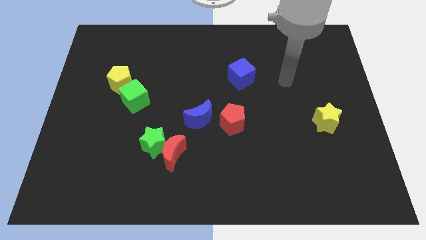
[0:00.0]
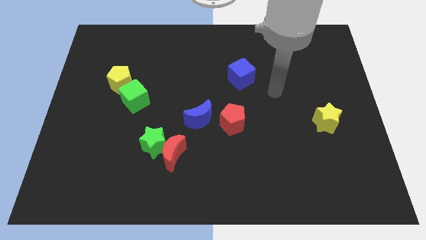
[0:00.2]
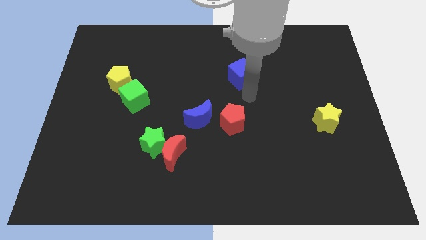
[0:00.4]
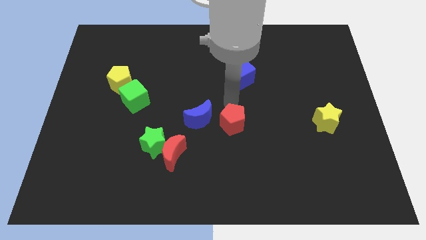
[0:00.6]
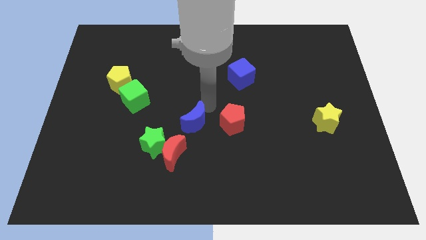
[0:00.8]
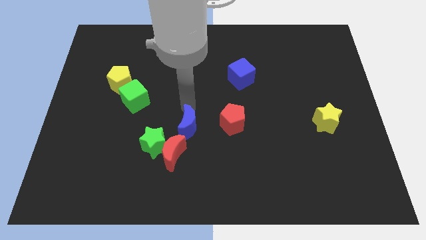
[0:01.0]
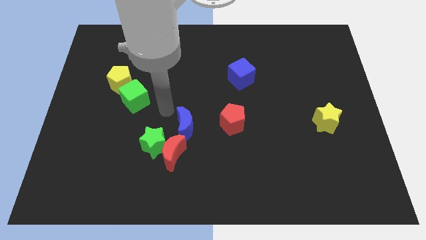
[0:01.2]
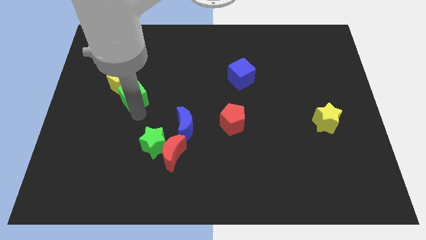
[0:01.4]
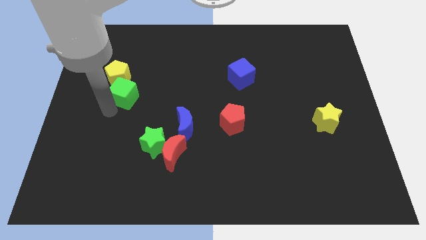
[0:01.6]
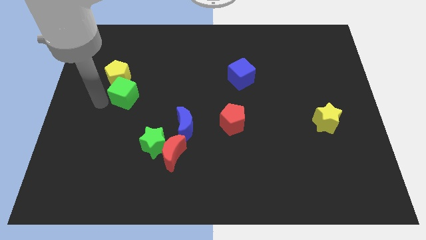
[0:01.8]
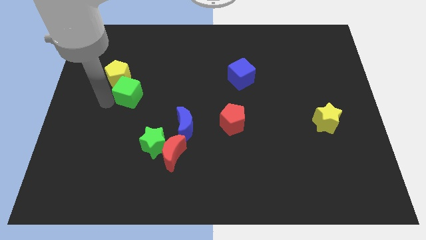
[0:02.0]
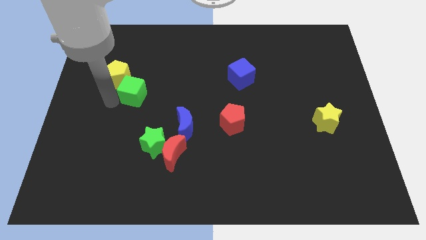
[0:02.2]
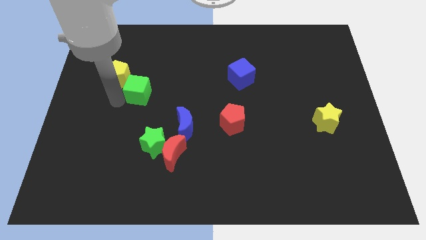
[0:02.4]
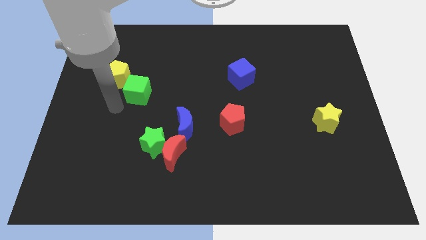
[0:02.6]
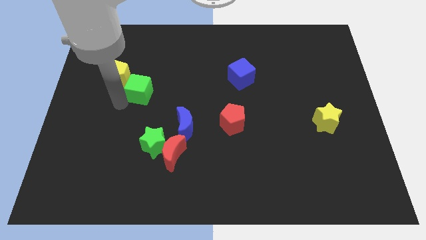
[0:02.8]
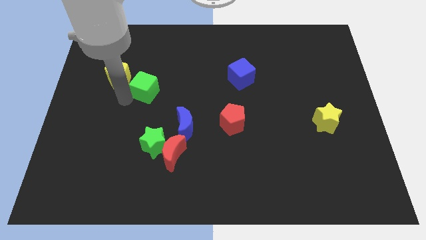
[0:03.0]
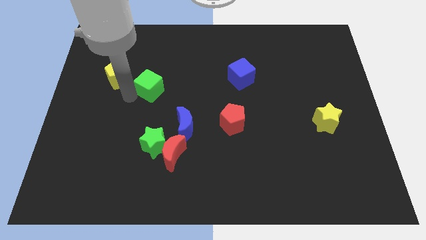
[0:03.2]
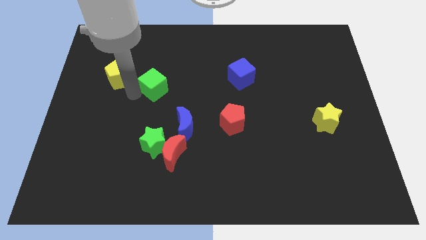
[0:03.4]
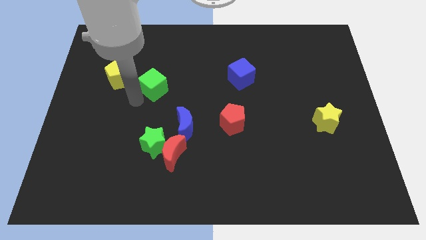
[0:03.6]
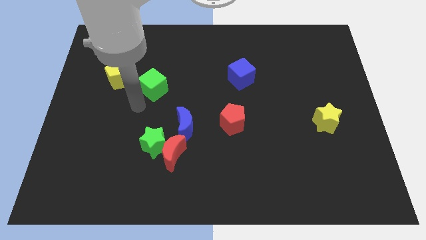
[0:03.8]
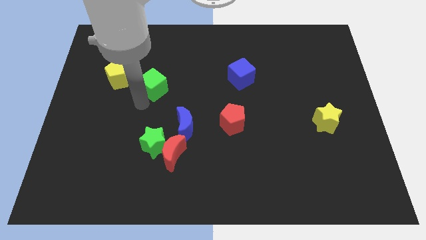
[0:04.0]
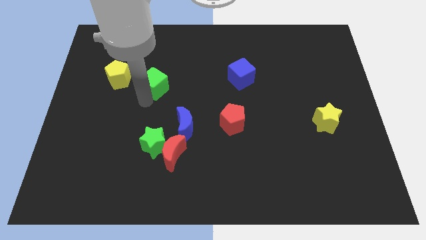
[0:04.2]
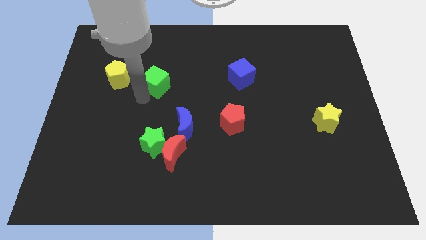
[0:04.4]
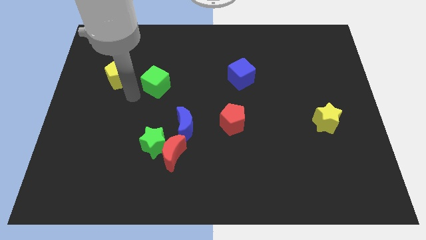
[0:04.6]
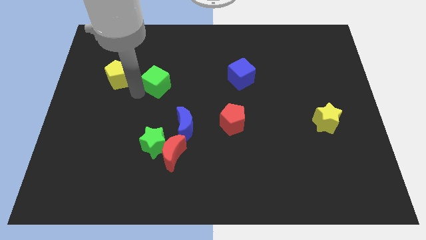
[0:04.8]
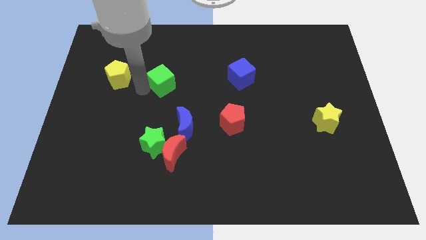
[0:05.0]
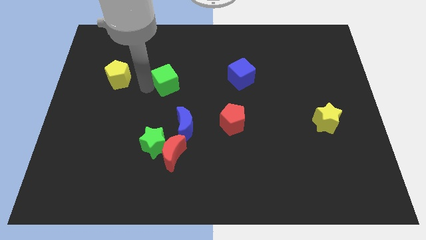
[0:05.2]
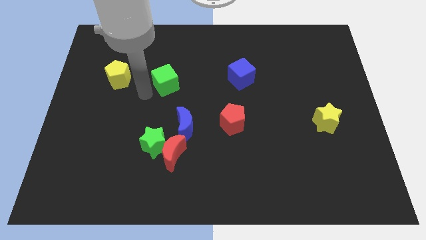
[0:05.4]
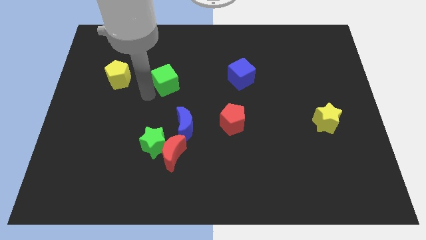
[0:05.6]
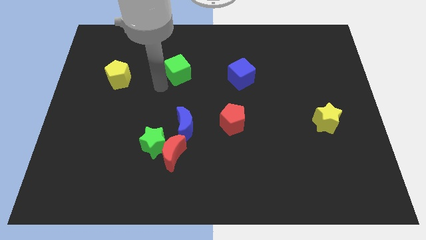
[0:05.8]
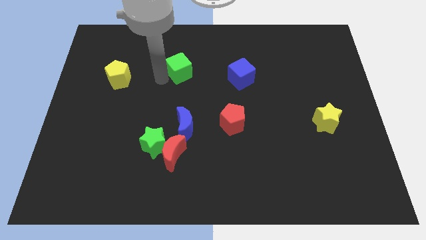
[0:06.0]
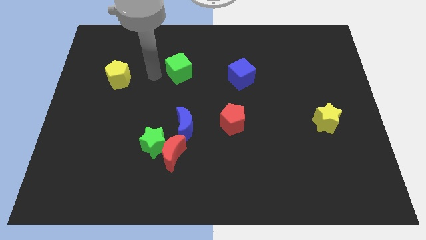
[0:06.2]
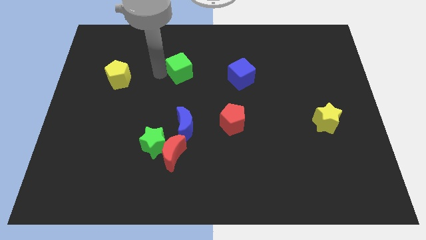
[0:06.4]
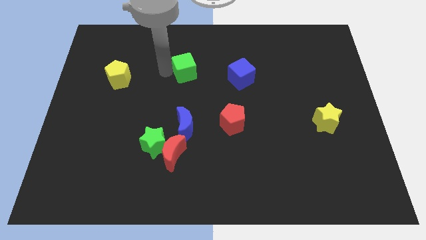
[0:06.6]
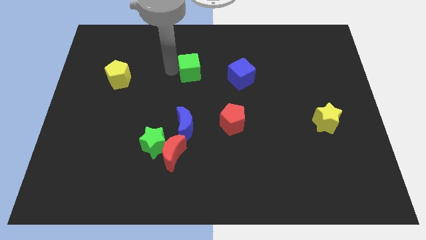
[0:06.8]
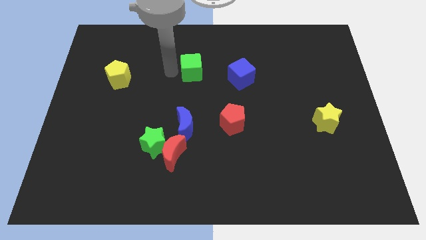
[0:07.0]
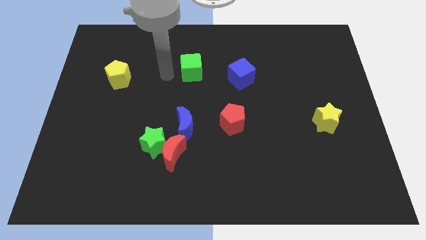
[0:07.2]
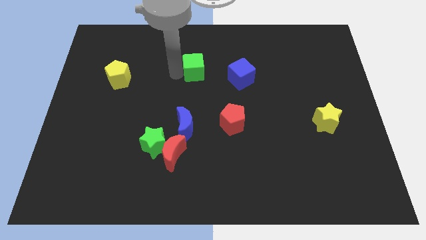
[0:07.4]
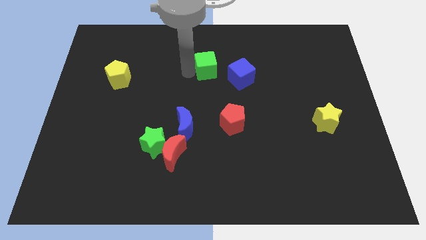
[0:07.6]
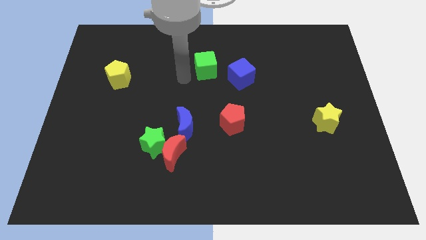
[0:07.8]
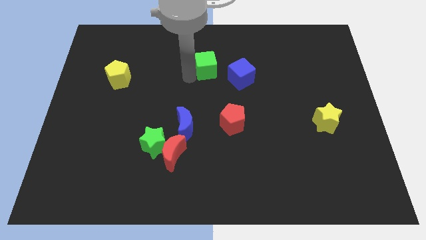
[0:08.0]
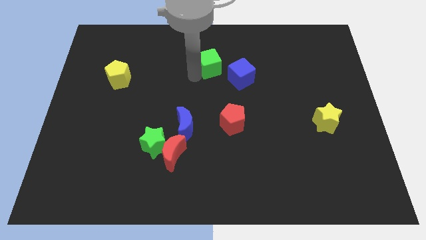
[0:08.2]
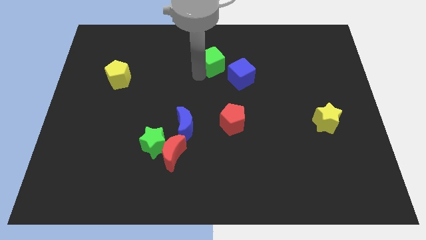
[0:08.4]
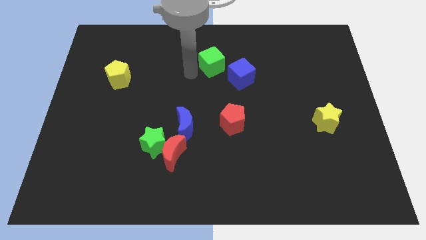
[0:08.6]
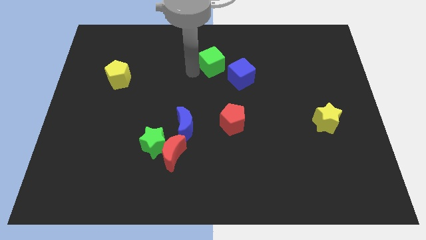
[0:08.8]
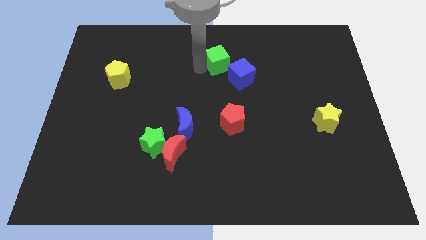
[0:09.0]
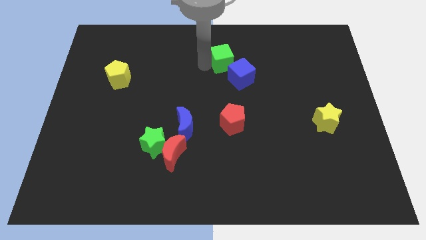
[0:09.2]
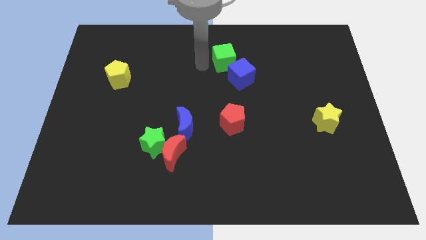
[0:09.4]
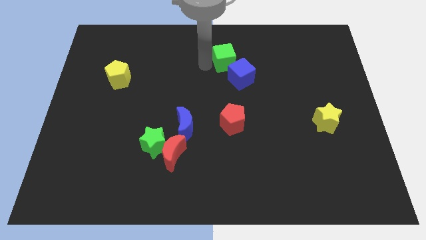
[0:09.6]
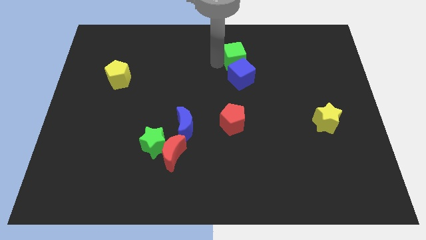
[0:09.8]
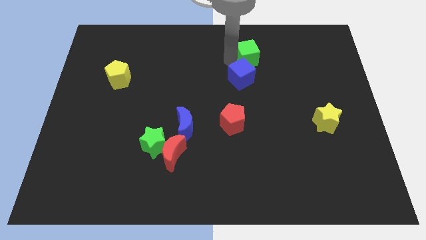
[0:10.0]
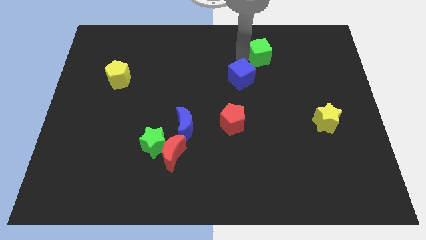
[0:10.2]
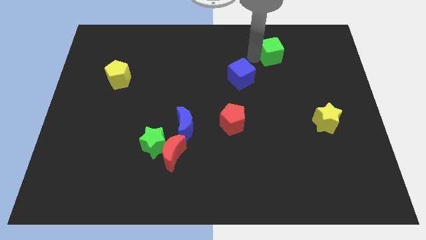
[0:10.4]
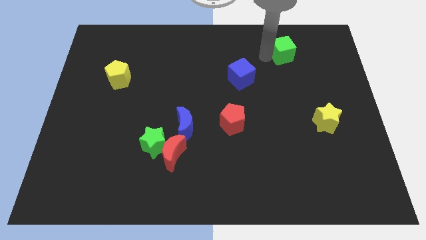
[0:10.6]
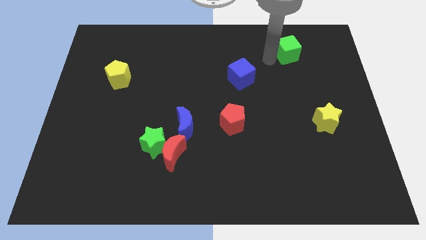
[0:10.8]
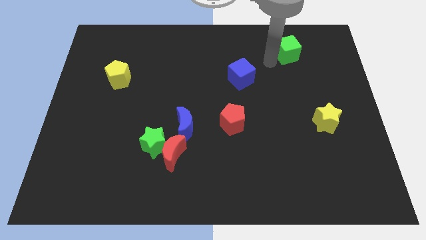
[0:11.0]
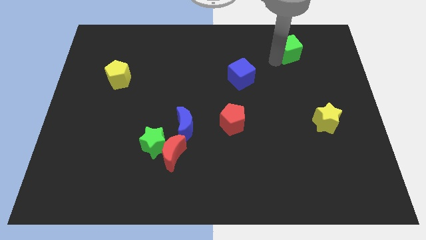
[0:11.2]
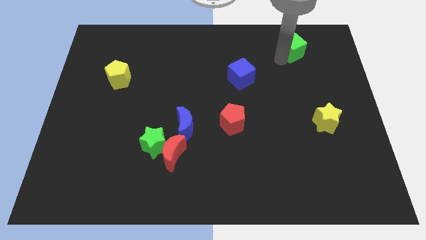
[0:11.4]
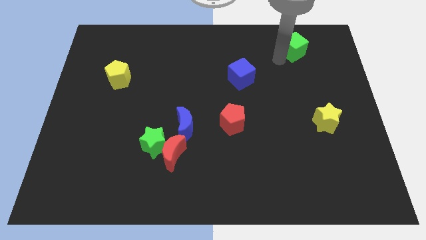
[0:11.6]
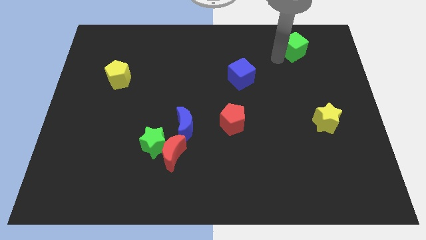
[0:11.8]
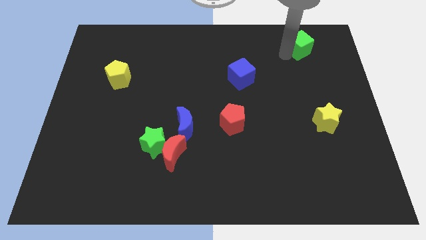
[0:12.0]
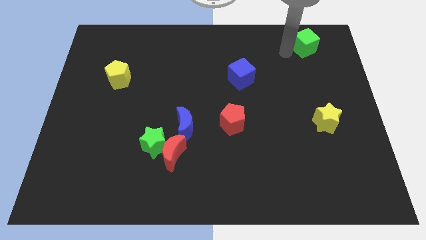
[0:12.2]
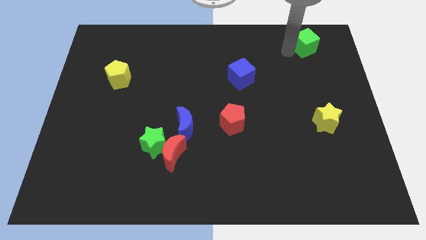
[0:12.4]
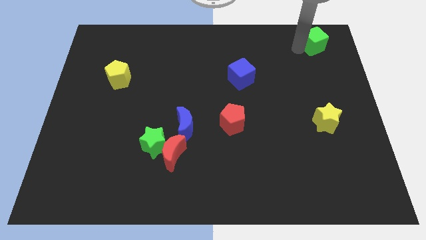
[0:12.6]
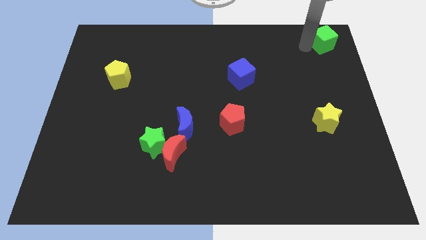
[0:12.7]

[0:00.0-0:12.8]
slide the green cube to the top right corner
